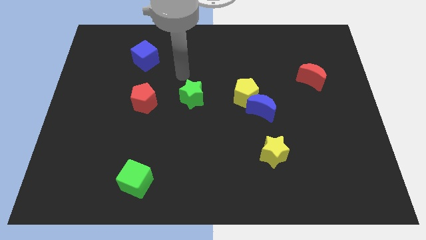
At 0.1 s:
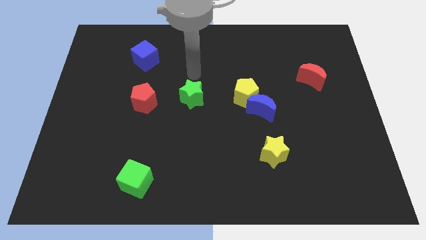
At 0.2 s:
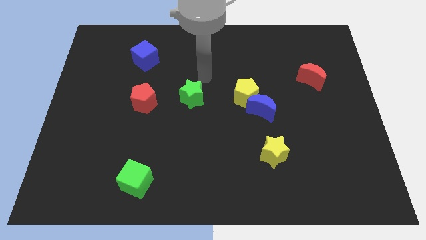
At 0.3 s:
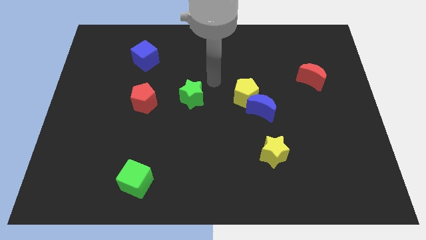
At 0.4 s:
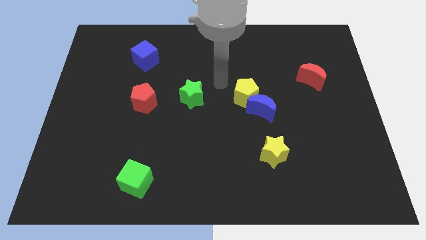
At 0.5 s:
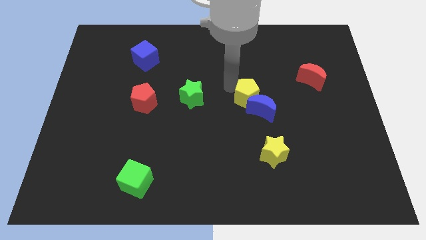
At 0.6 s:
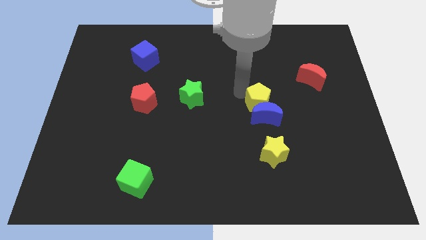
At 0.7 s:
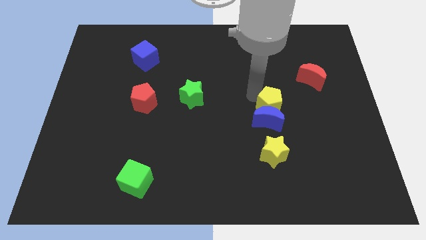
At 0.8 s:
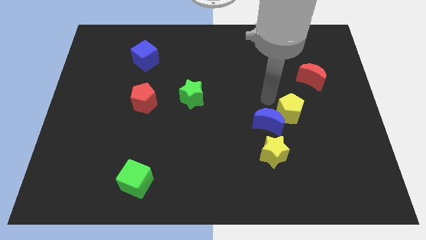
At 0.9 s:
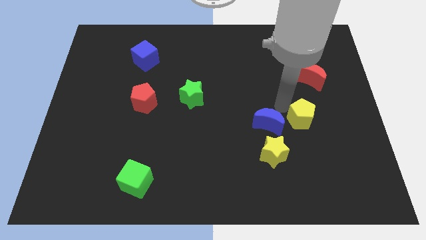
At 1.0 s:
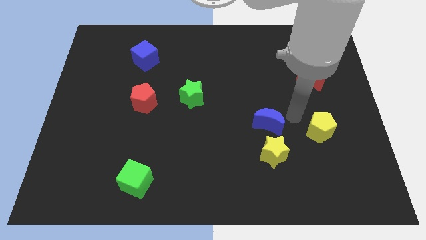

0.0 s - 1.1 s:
pull the blue moon apart from the yellow pentagon

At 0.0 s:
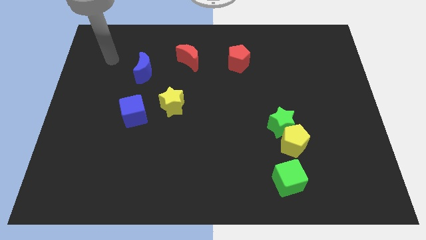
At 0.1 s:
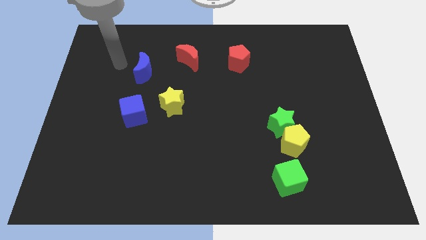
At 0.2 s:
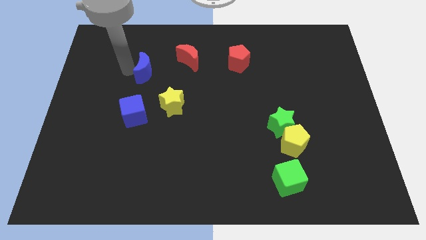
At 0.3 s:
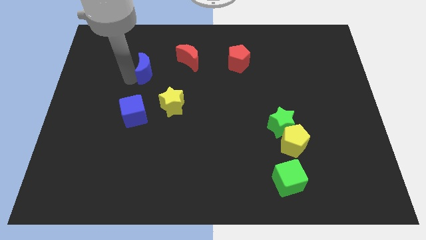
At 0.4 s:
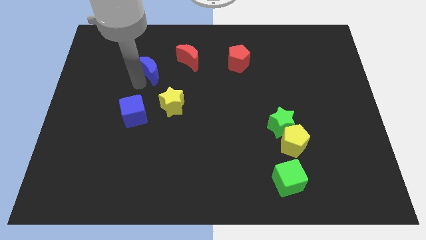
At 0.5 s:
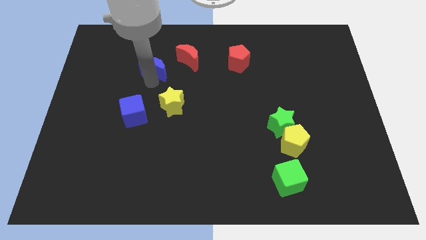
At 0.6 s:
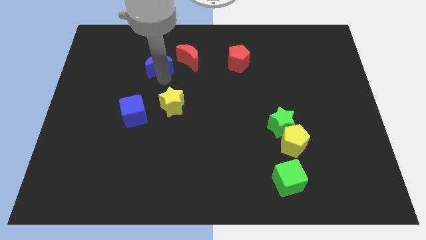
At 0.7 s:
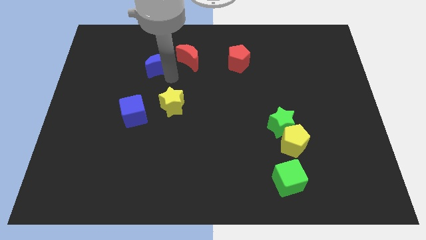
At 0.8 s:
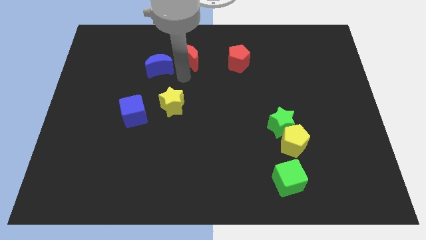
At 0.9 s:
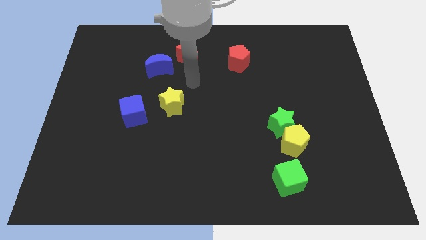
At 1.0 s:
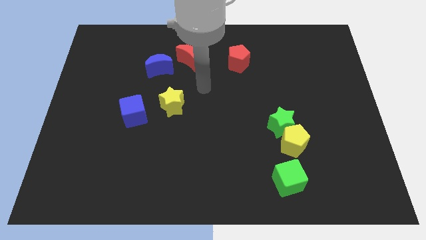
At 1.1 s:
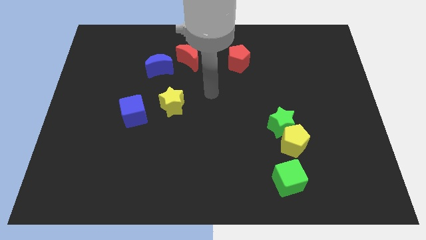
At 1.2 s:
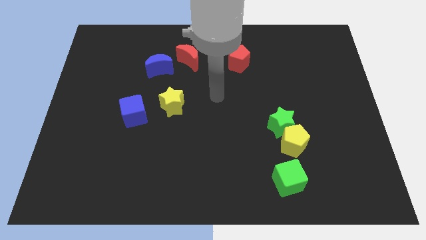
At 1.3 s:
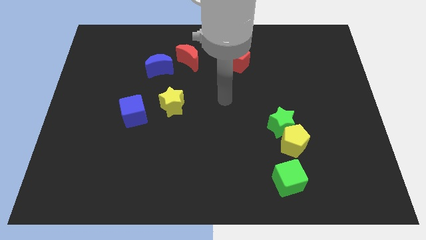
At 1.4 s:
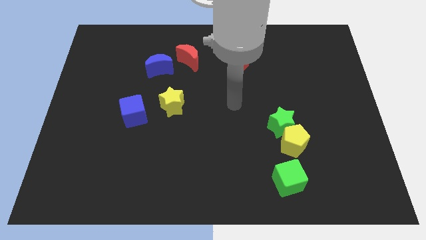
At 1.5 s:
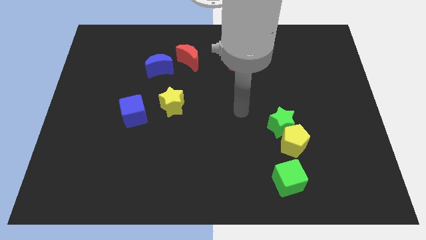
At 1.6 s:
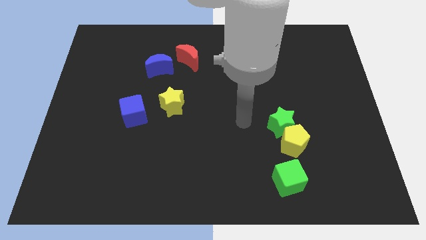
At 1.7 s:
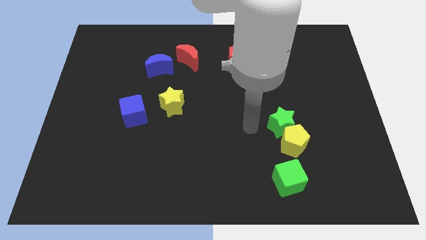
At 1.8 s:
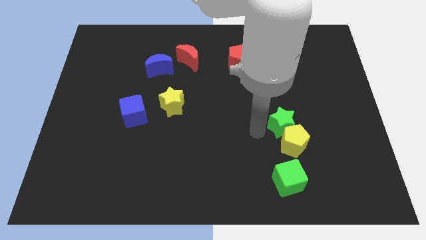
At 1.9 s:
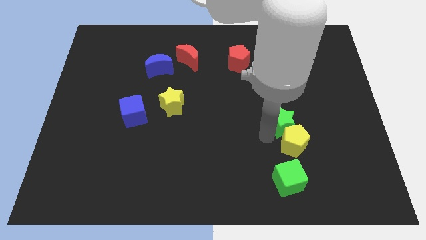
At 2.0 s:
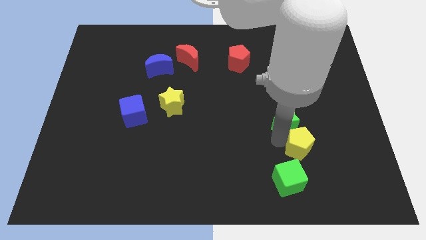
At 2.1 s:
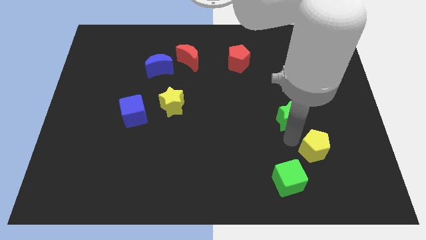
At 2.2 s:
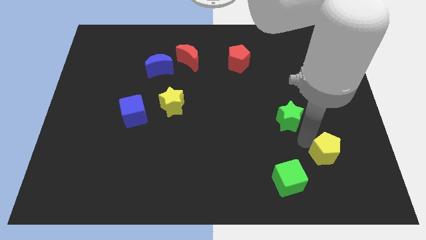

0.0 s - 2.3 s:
pull the green star apart from the yellow pentagon

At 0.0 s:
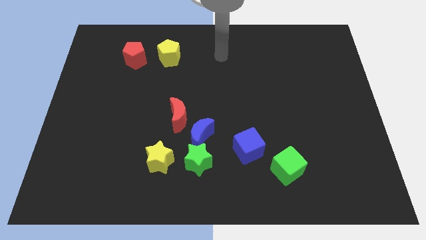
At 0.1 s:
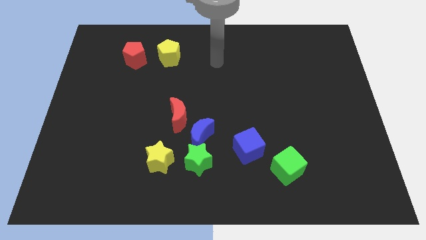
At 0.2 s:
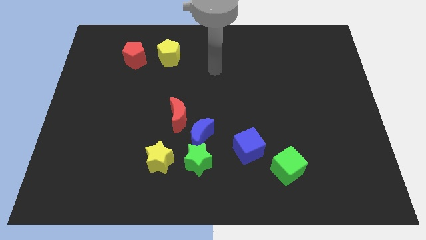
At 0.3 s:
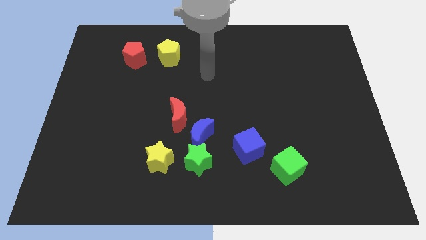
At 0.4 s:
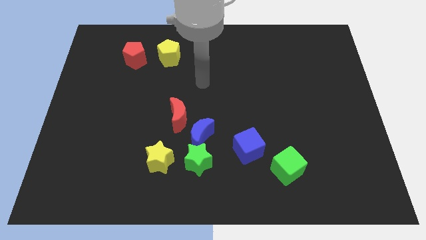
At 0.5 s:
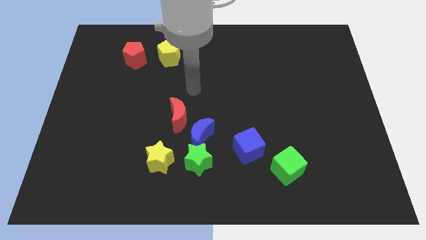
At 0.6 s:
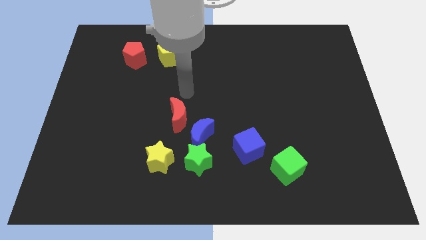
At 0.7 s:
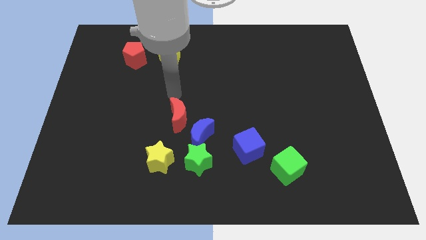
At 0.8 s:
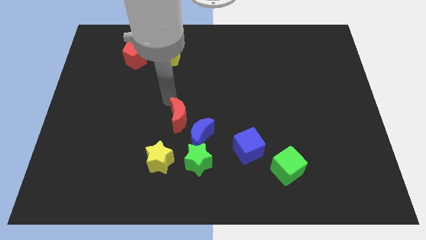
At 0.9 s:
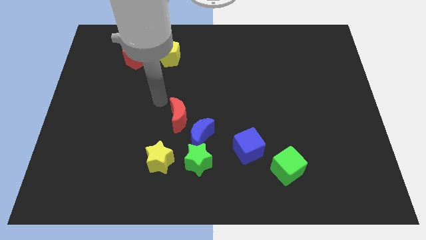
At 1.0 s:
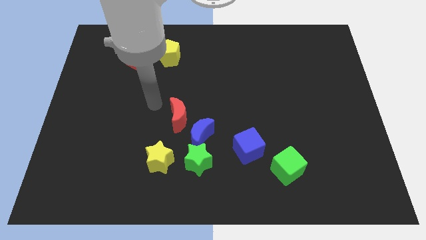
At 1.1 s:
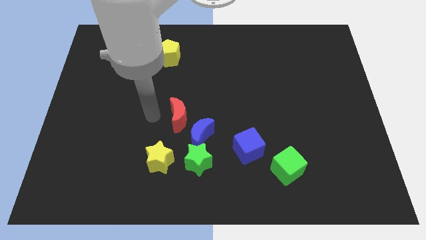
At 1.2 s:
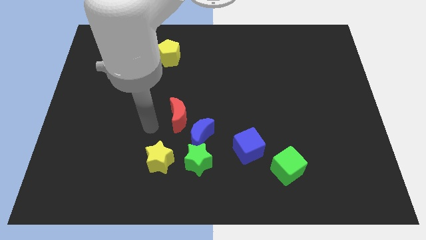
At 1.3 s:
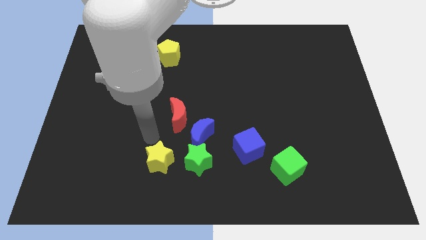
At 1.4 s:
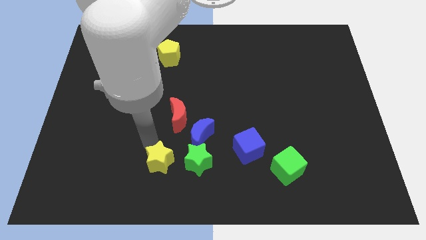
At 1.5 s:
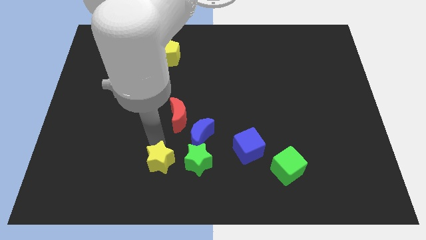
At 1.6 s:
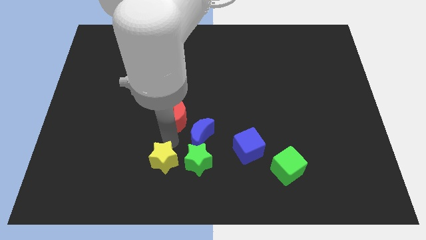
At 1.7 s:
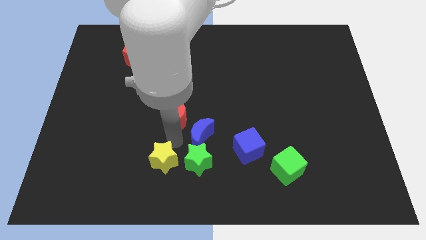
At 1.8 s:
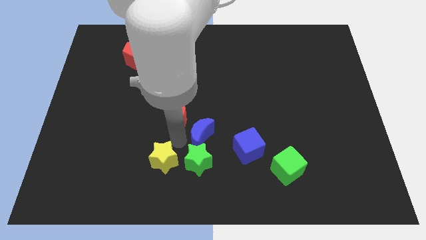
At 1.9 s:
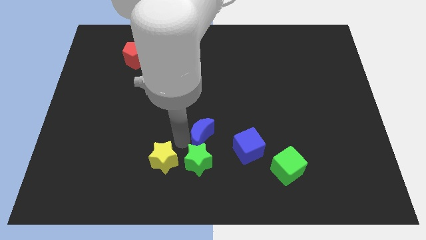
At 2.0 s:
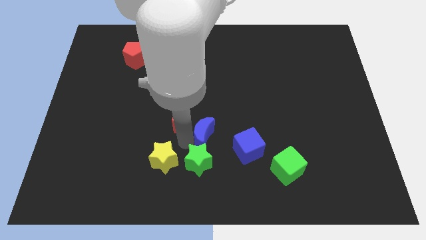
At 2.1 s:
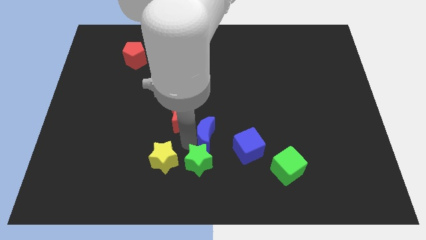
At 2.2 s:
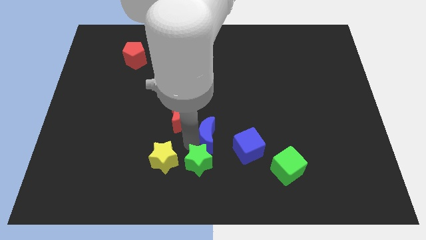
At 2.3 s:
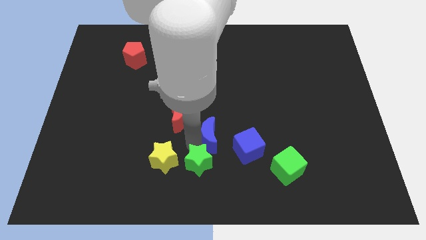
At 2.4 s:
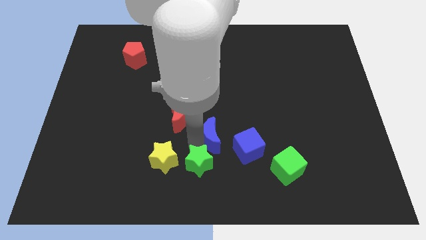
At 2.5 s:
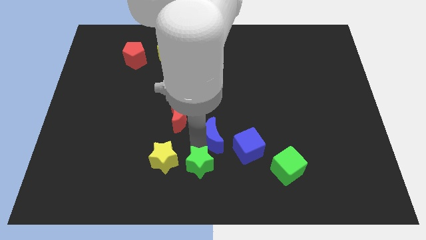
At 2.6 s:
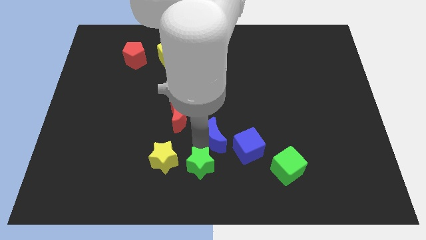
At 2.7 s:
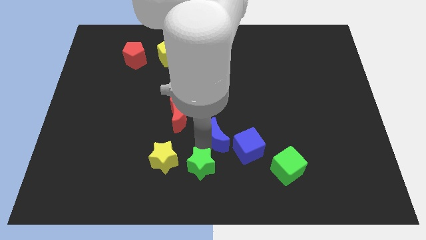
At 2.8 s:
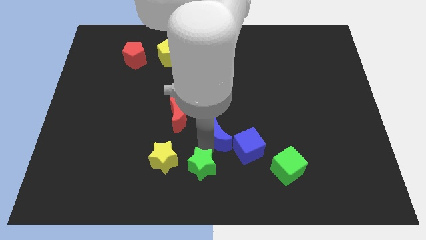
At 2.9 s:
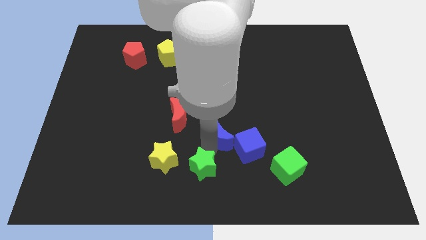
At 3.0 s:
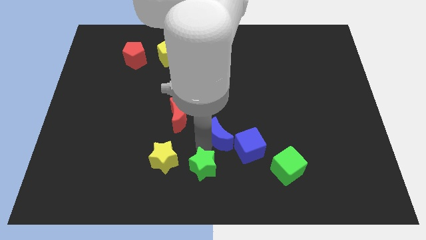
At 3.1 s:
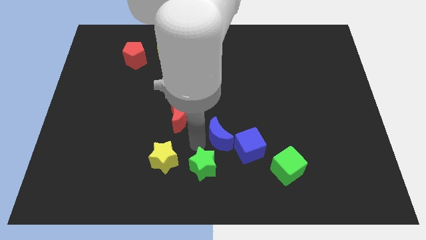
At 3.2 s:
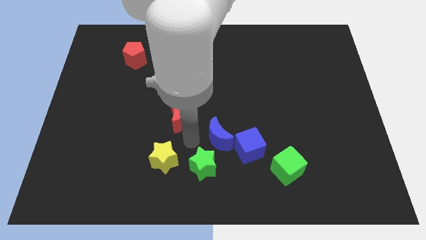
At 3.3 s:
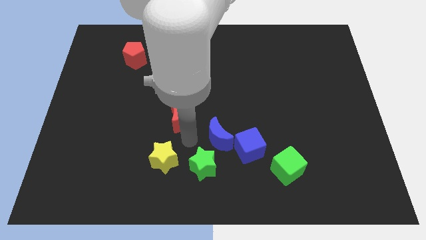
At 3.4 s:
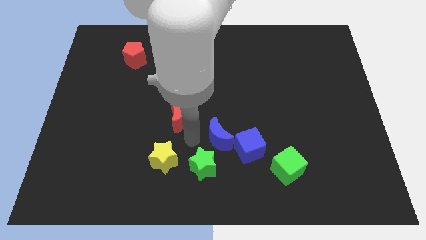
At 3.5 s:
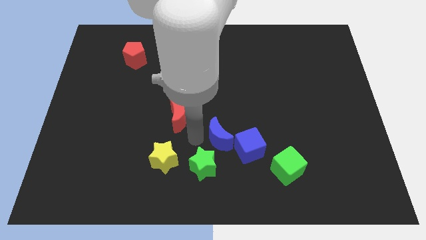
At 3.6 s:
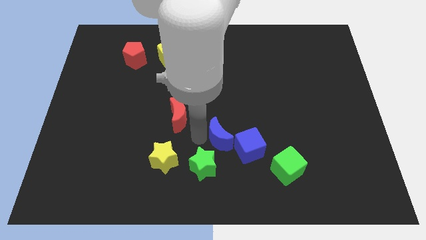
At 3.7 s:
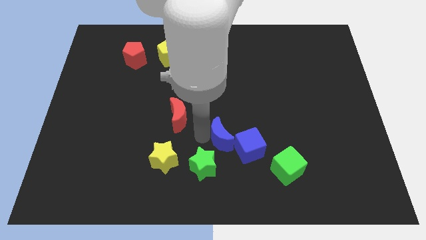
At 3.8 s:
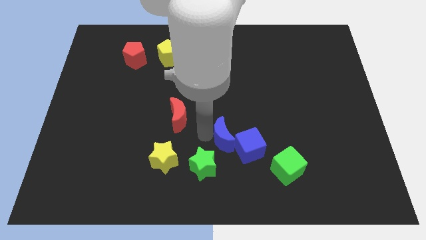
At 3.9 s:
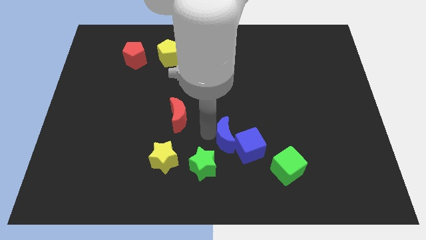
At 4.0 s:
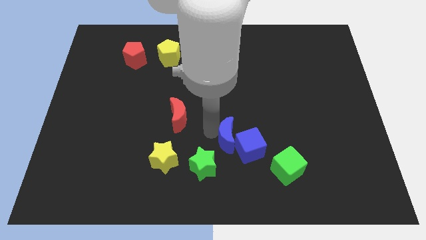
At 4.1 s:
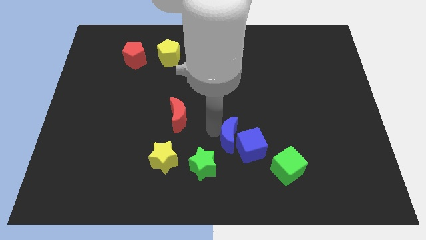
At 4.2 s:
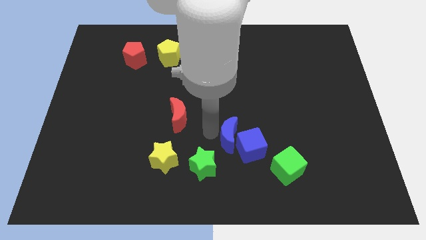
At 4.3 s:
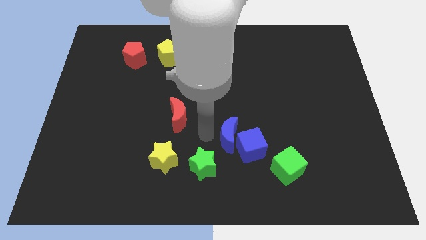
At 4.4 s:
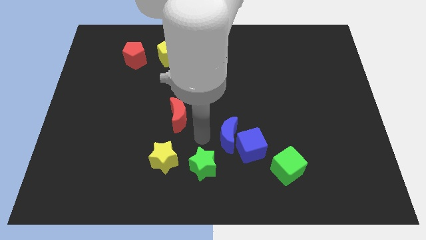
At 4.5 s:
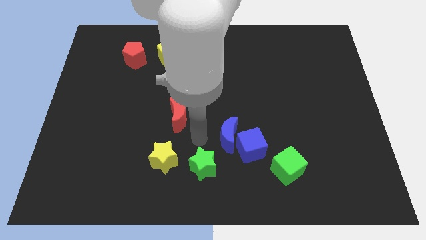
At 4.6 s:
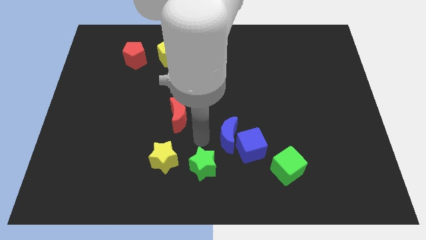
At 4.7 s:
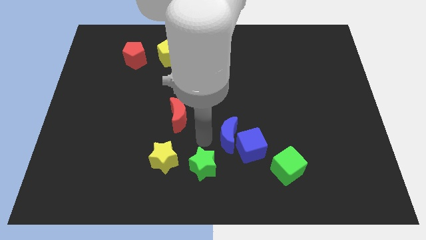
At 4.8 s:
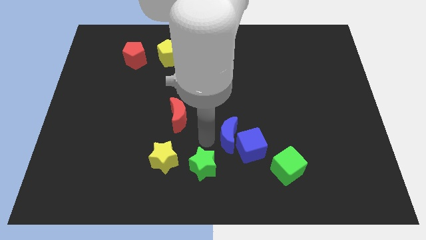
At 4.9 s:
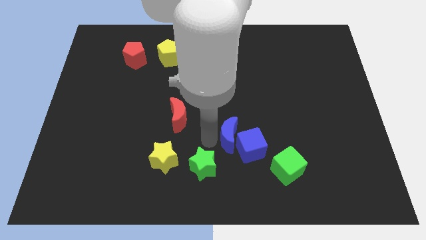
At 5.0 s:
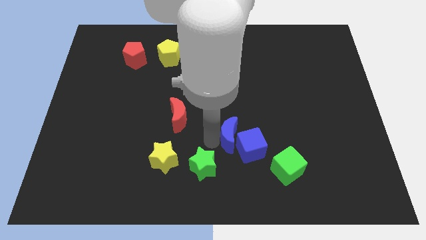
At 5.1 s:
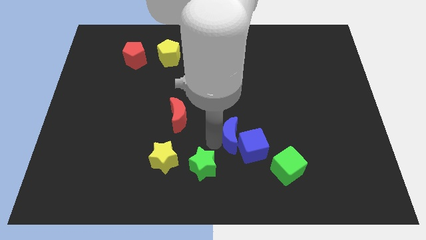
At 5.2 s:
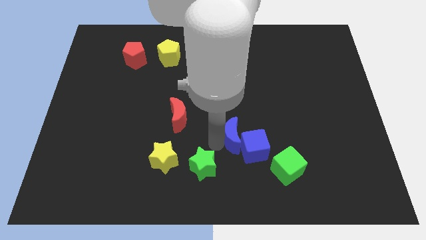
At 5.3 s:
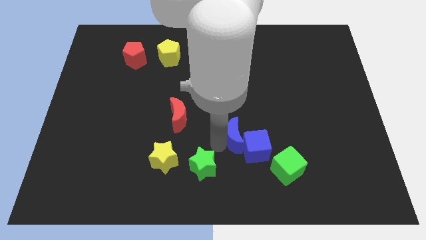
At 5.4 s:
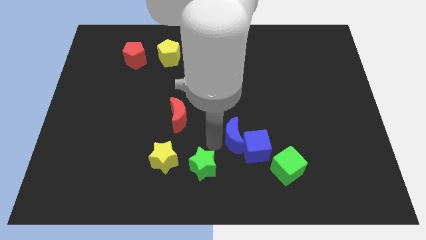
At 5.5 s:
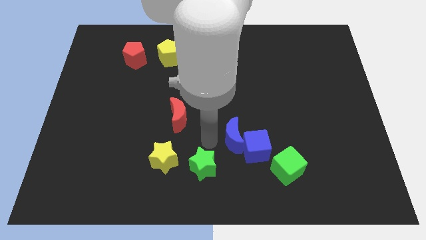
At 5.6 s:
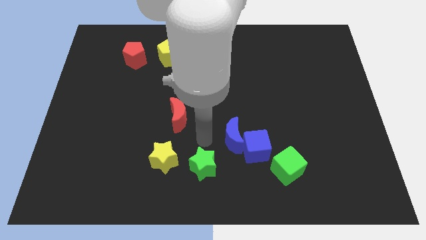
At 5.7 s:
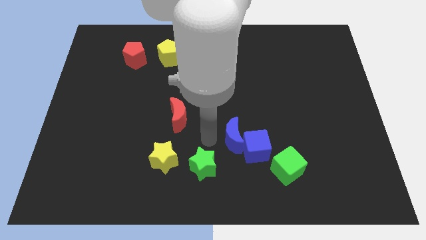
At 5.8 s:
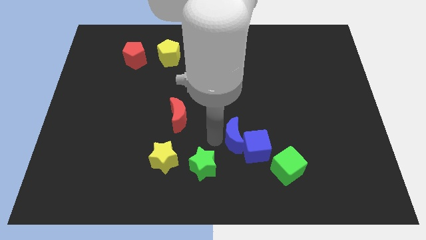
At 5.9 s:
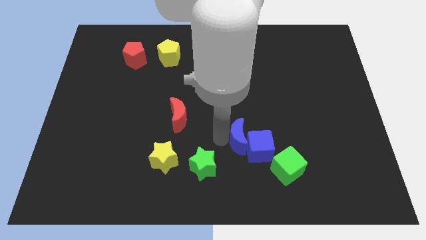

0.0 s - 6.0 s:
move the blue moon away from the green star and red moon
